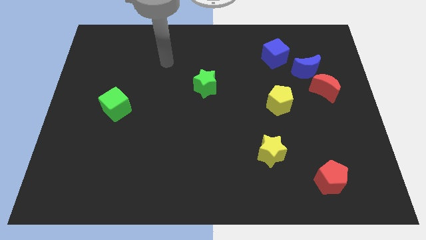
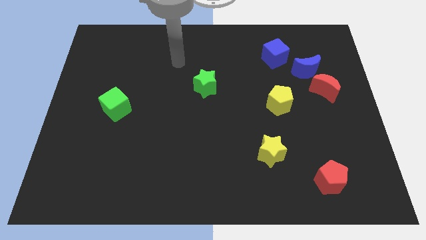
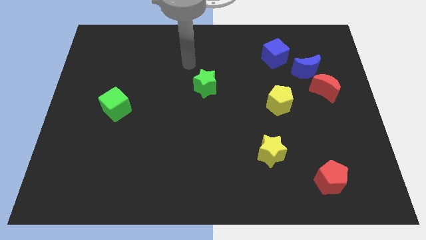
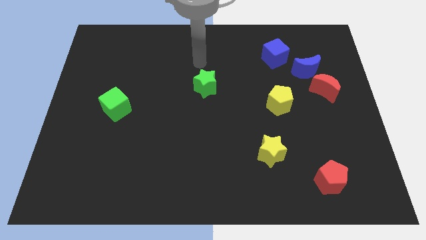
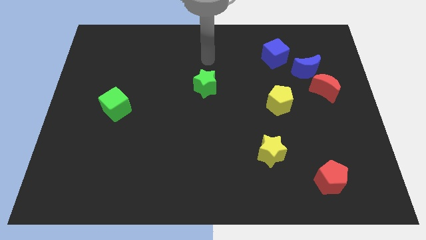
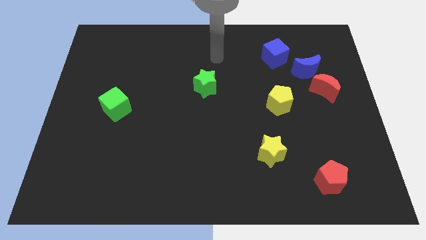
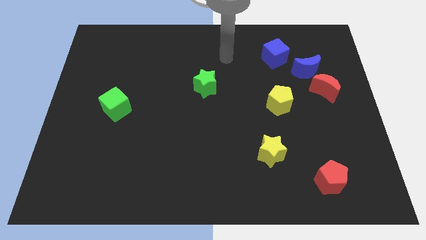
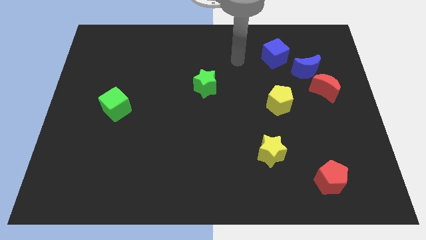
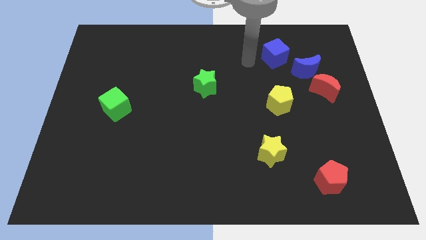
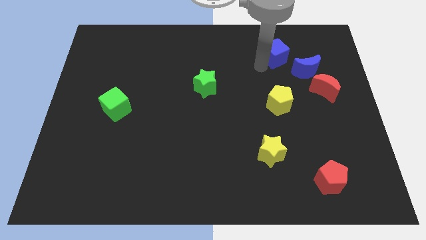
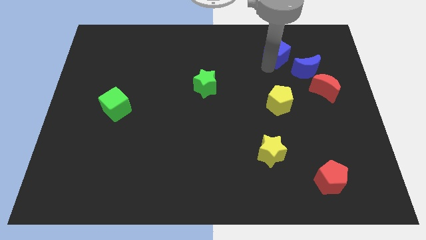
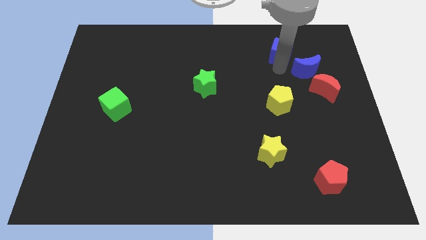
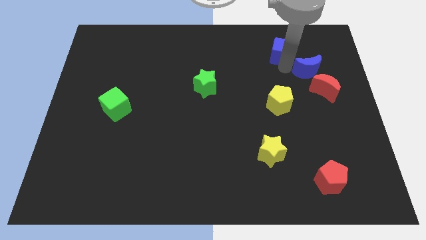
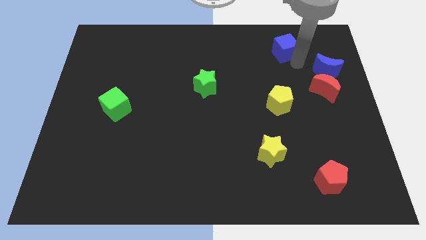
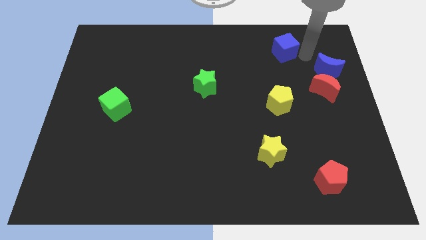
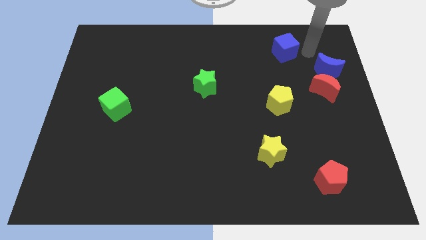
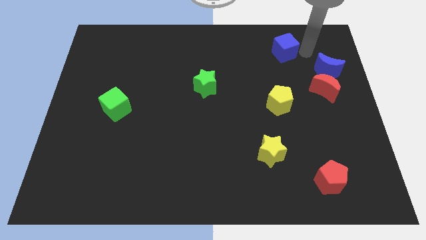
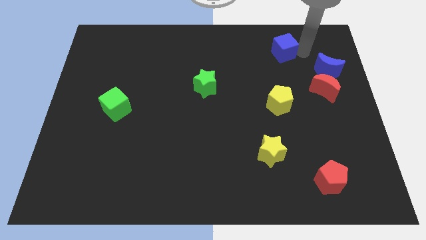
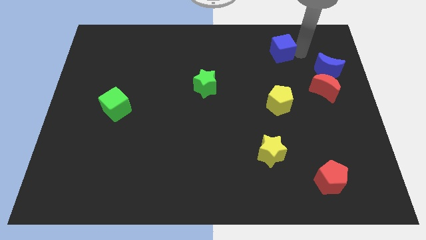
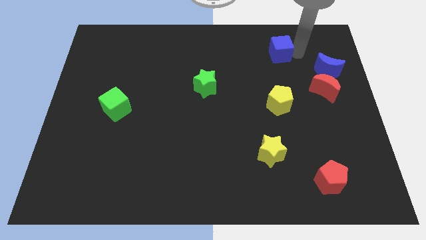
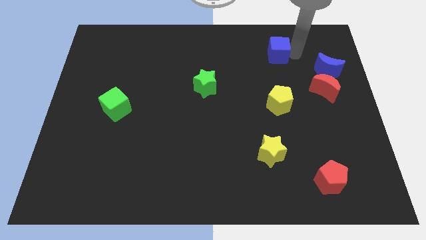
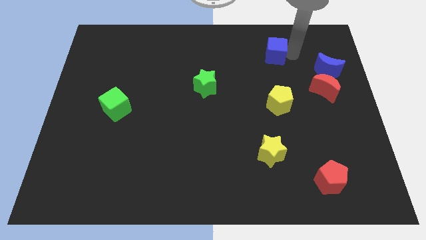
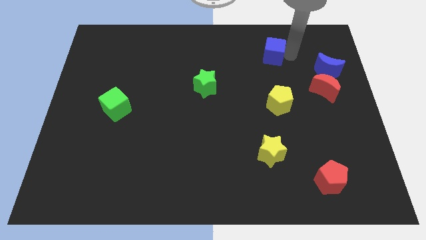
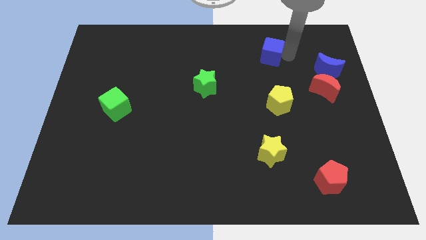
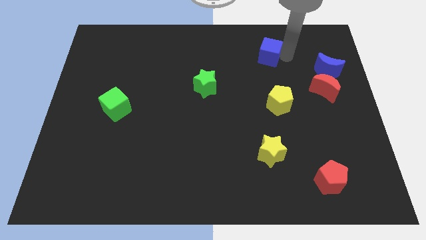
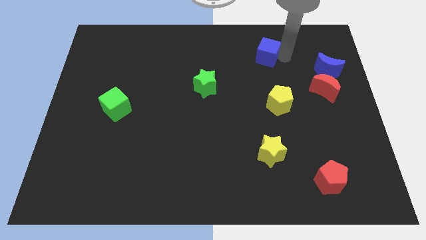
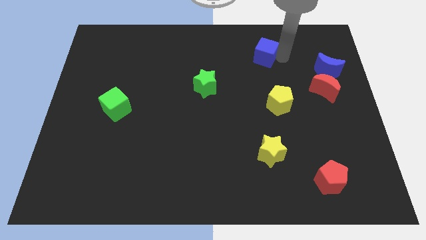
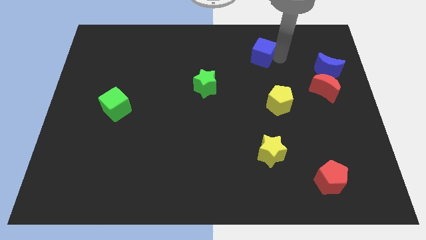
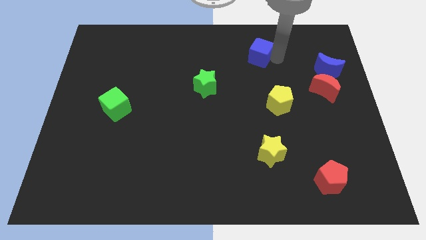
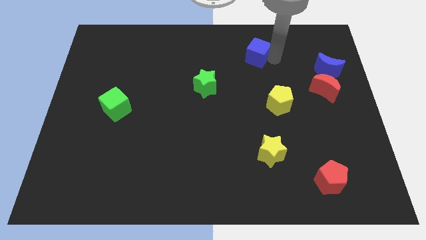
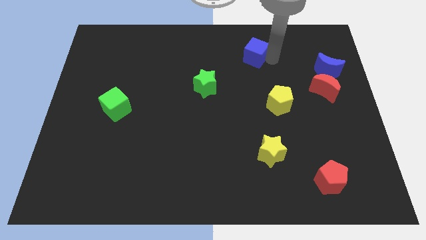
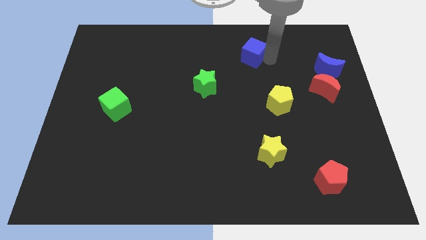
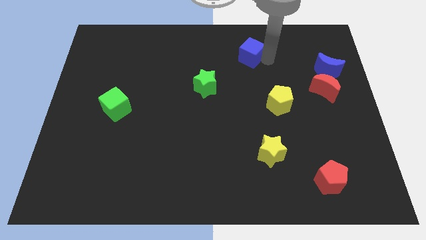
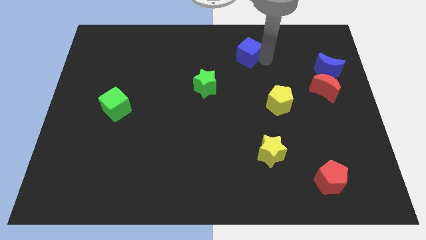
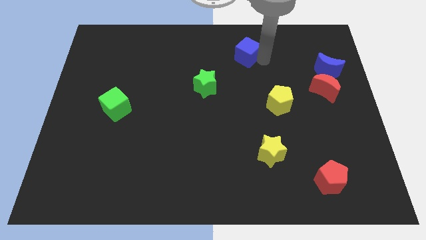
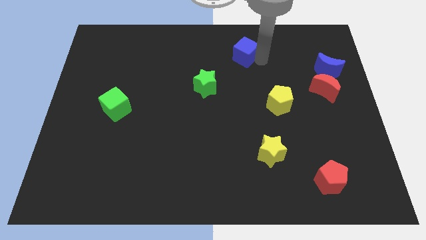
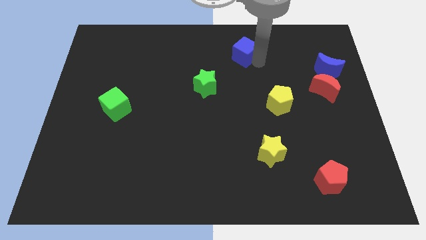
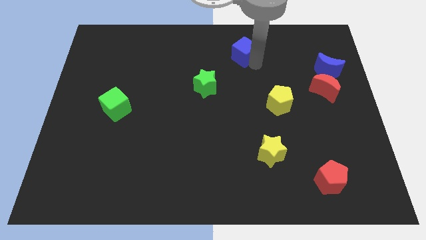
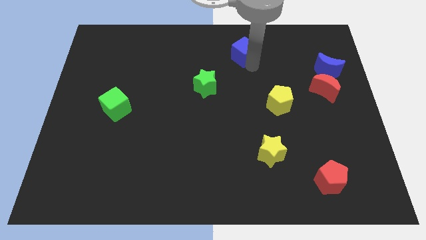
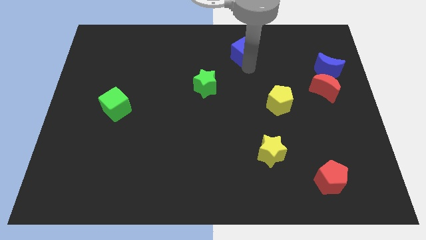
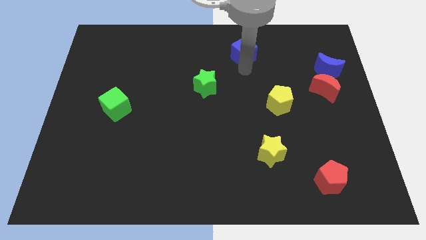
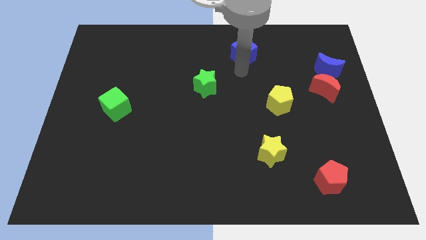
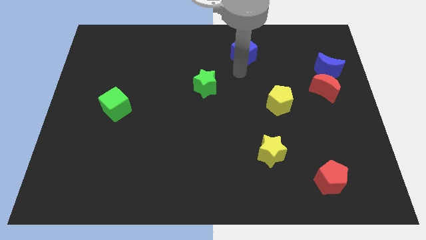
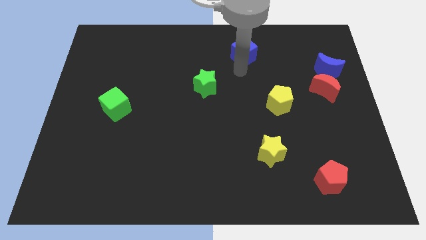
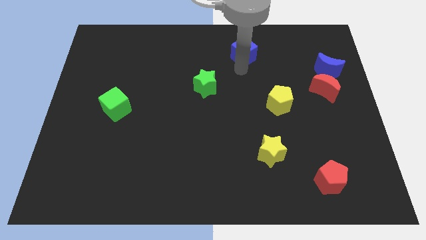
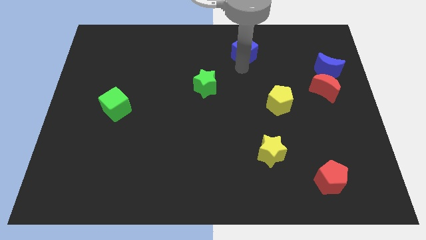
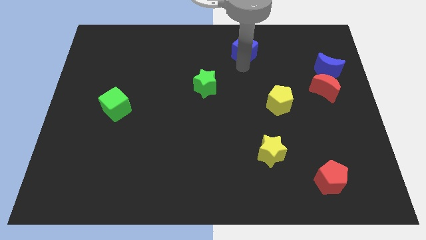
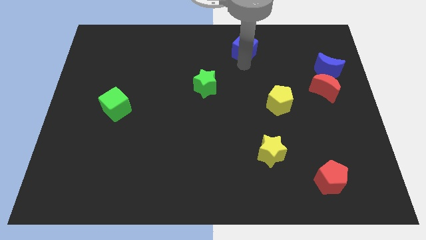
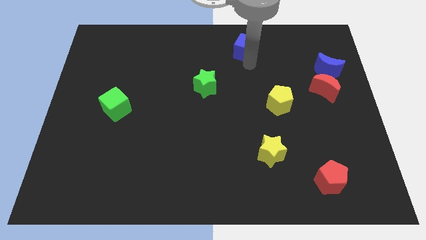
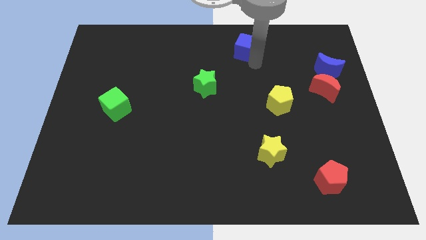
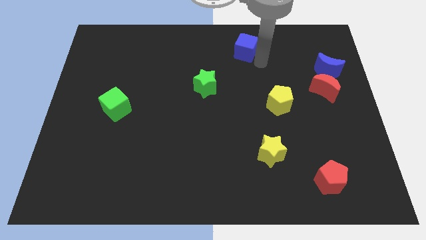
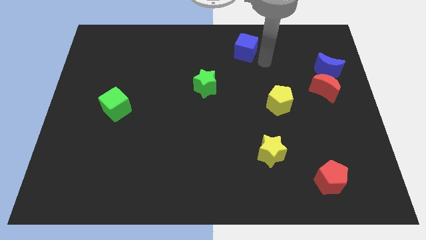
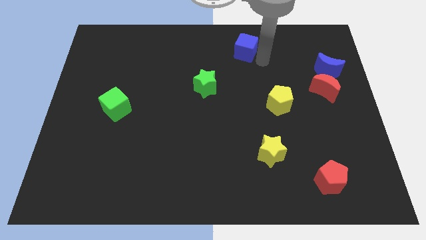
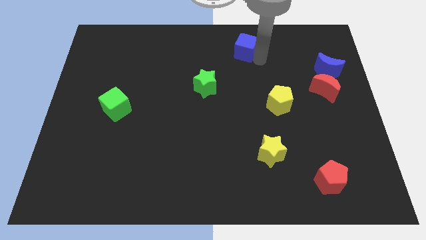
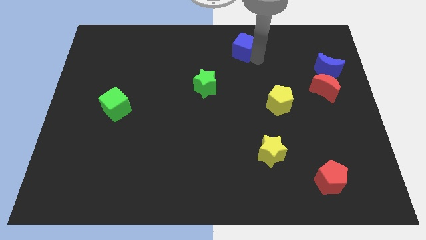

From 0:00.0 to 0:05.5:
slide the blue cube to the top
